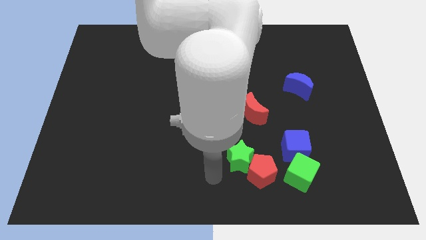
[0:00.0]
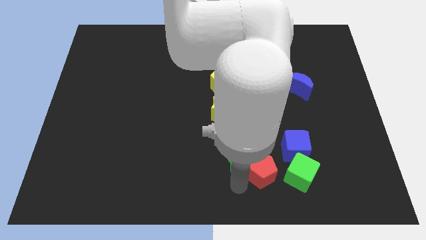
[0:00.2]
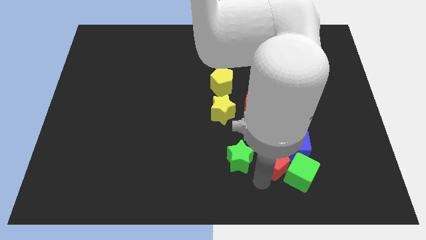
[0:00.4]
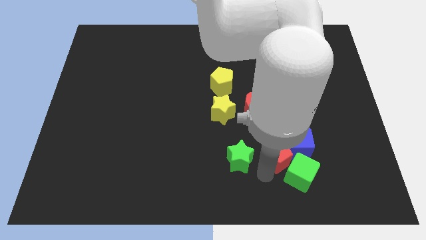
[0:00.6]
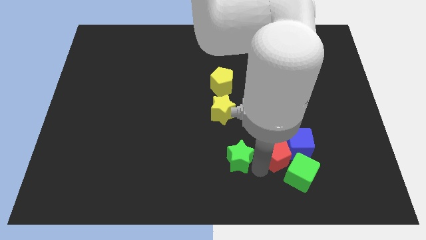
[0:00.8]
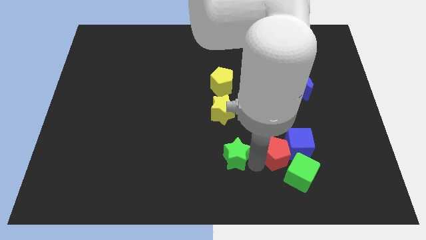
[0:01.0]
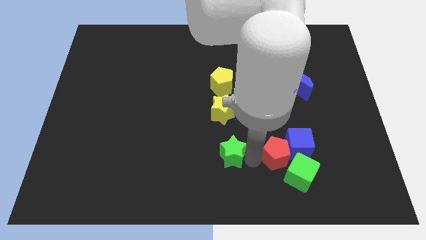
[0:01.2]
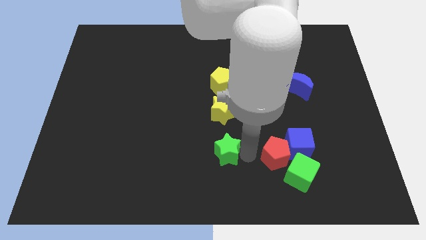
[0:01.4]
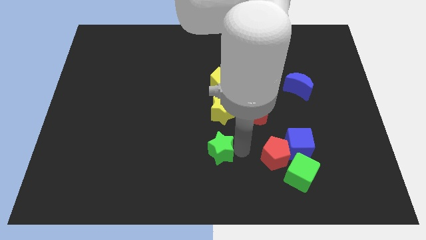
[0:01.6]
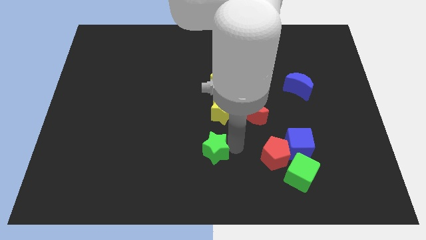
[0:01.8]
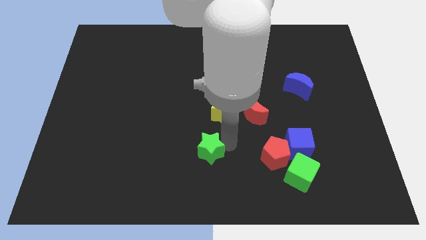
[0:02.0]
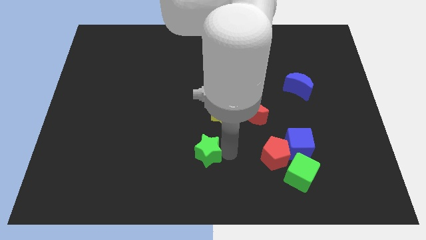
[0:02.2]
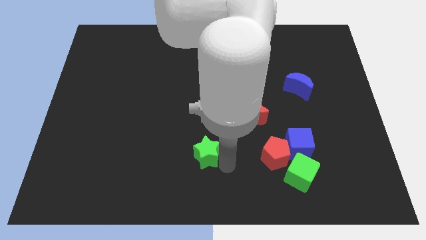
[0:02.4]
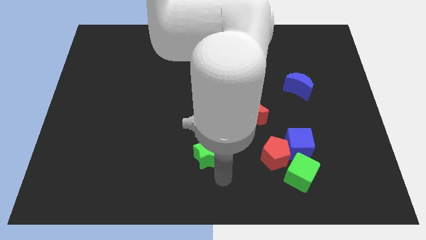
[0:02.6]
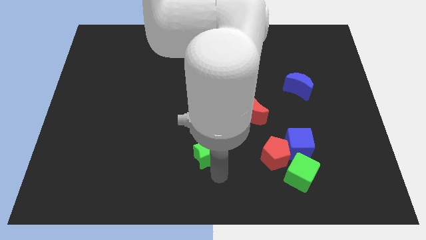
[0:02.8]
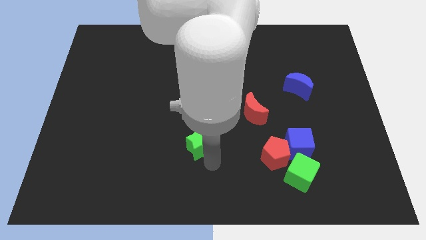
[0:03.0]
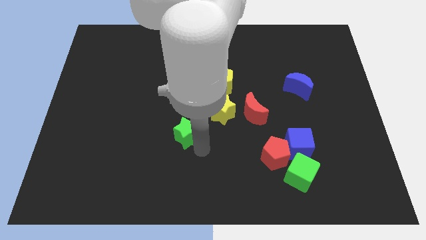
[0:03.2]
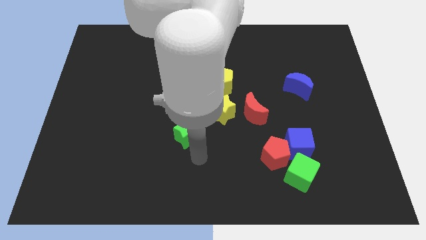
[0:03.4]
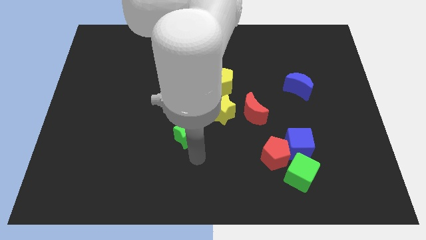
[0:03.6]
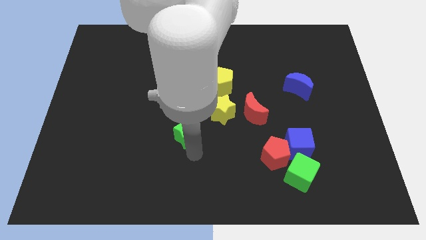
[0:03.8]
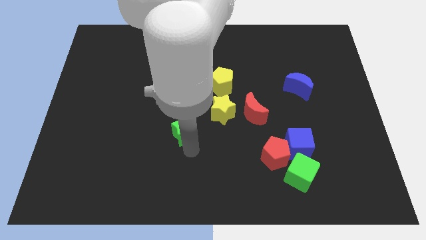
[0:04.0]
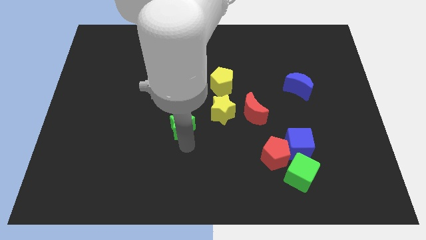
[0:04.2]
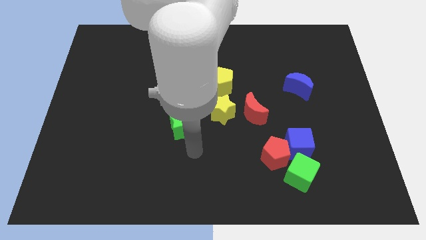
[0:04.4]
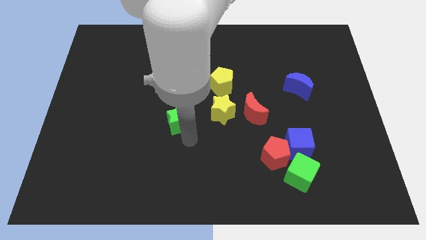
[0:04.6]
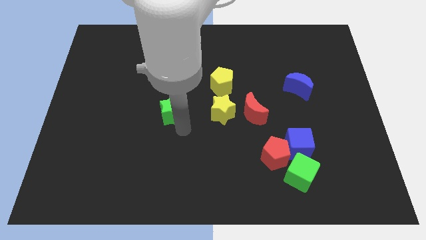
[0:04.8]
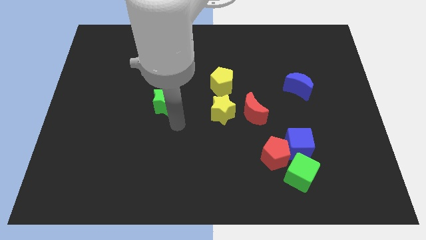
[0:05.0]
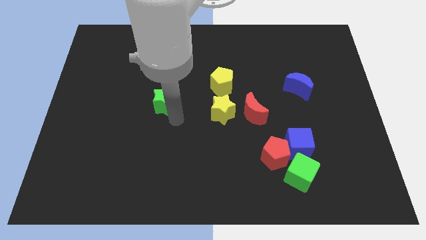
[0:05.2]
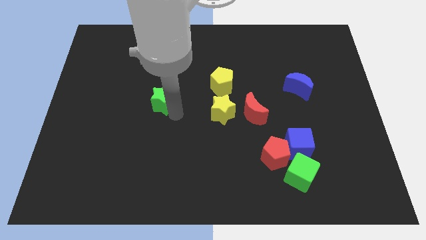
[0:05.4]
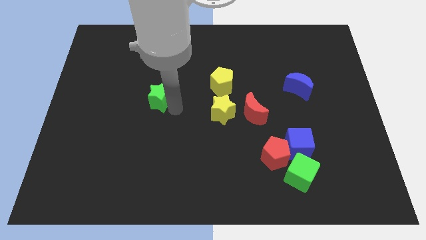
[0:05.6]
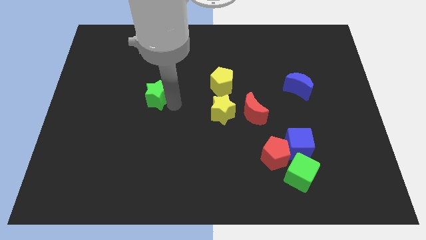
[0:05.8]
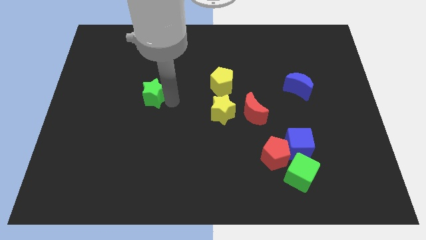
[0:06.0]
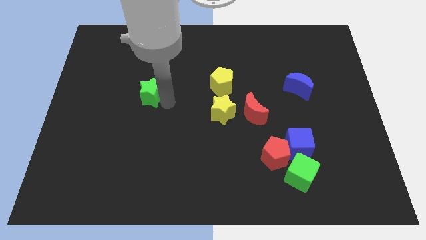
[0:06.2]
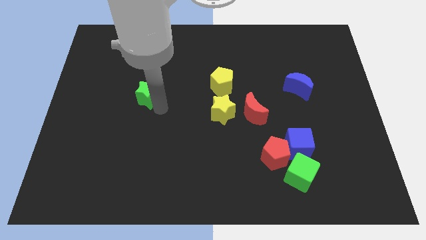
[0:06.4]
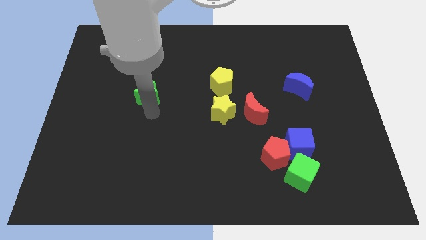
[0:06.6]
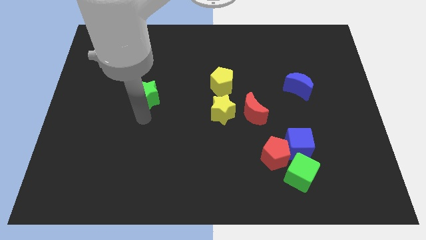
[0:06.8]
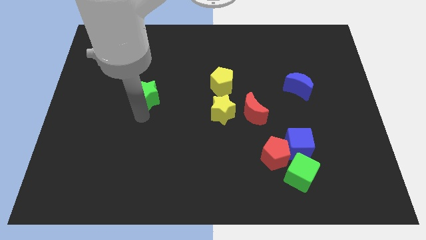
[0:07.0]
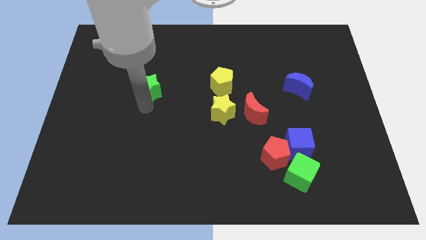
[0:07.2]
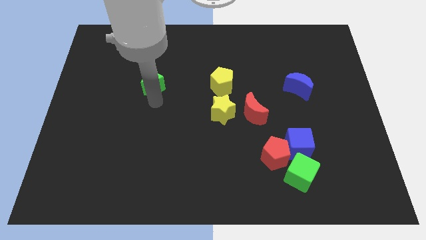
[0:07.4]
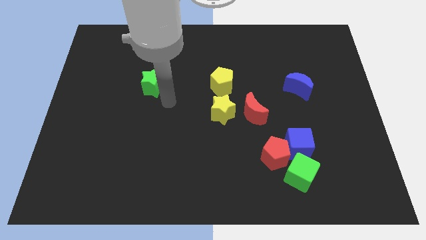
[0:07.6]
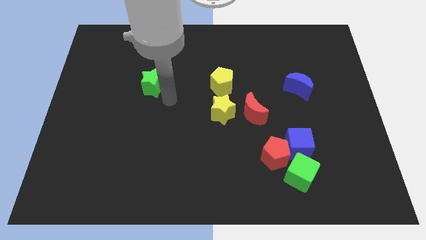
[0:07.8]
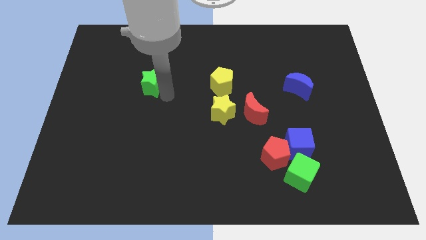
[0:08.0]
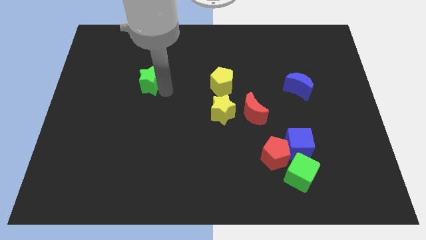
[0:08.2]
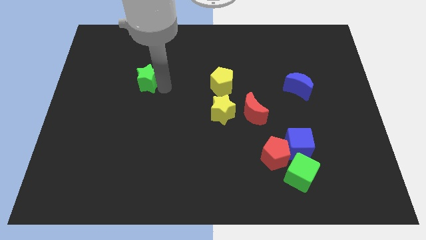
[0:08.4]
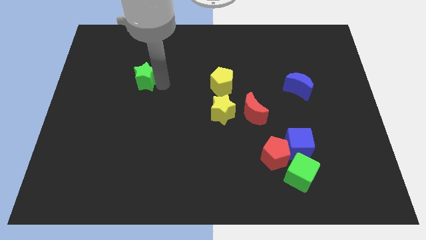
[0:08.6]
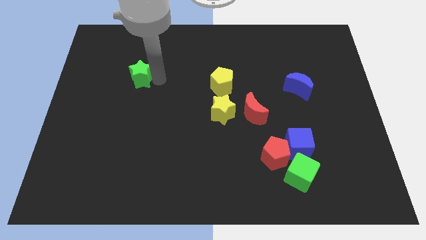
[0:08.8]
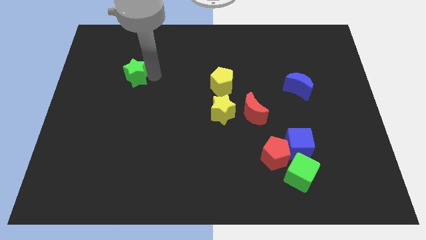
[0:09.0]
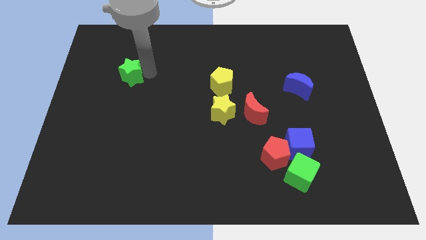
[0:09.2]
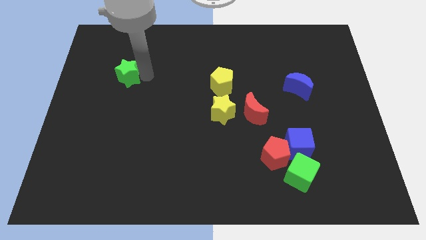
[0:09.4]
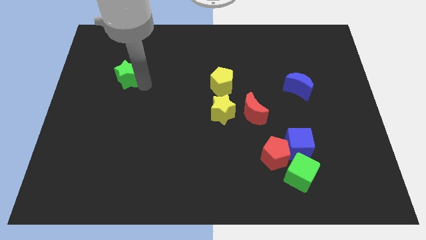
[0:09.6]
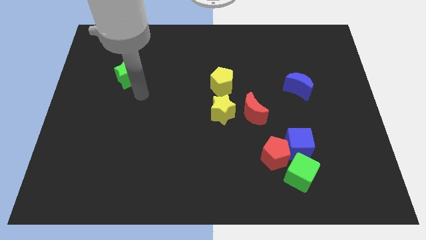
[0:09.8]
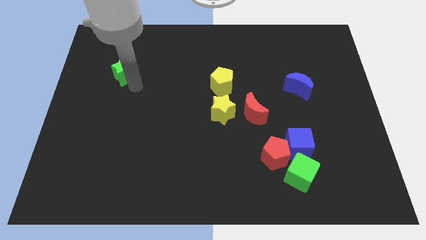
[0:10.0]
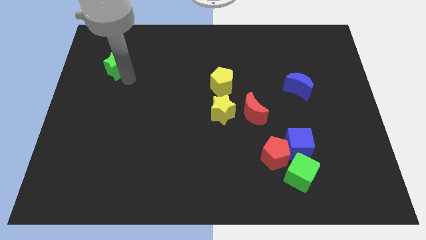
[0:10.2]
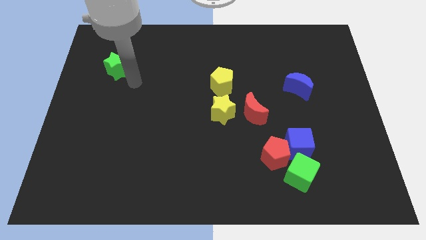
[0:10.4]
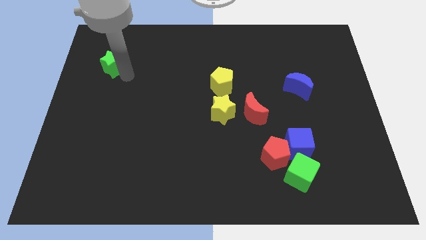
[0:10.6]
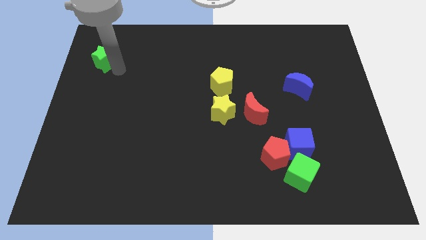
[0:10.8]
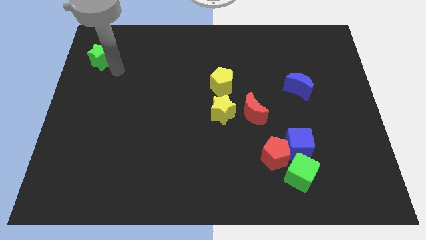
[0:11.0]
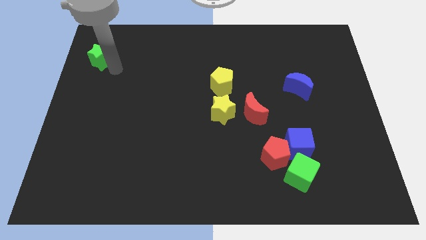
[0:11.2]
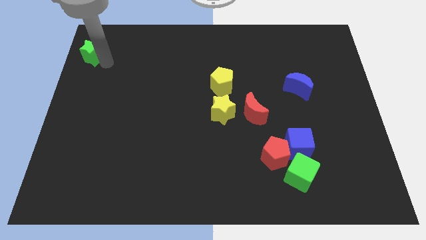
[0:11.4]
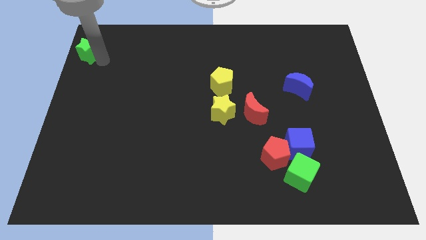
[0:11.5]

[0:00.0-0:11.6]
move the green star to the top left

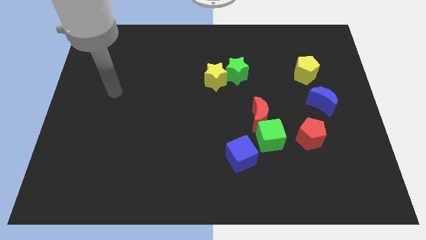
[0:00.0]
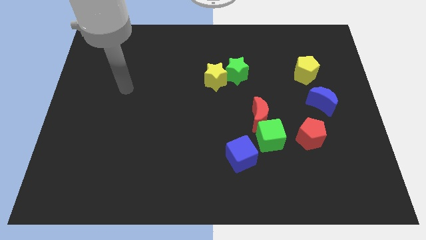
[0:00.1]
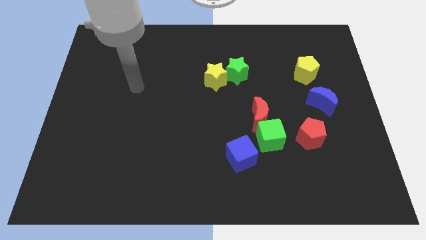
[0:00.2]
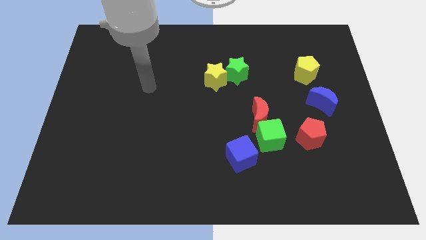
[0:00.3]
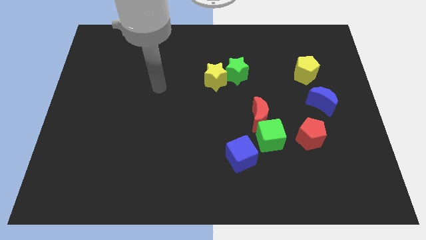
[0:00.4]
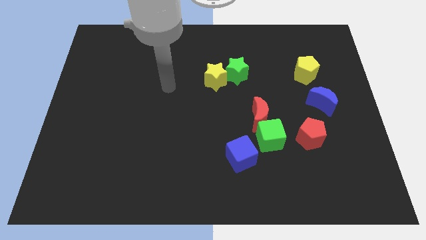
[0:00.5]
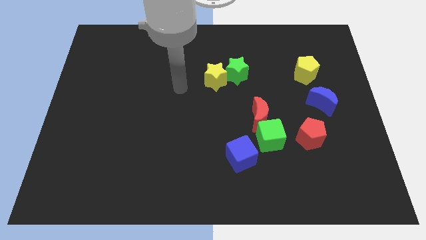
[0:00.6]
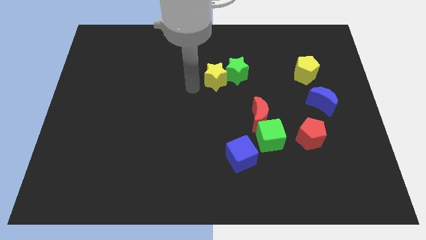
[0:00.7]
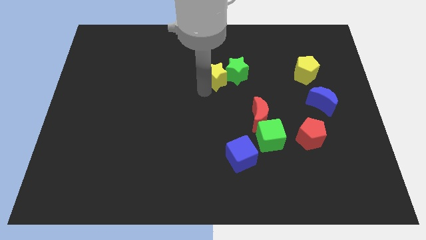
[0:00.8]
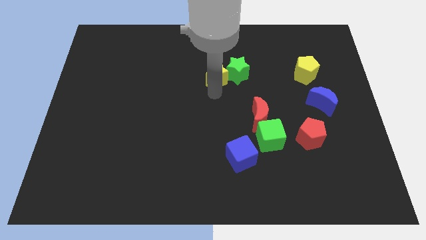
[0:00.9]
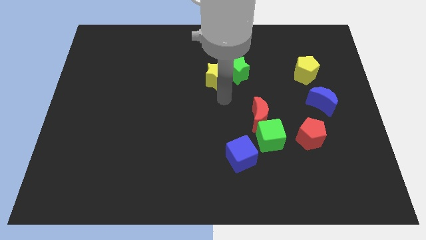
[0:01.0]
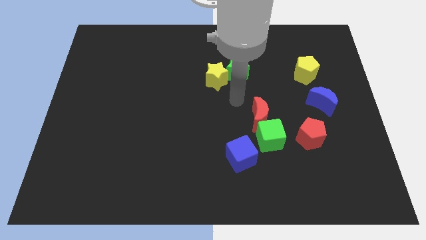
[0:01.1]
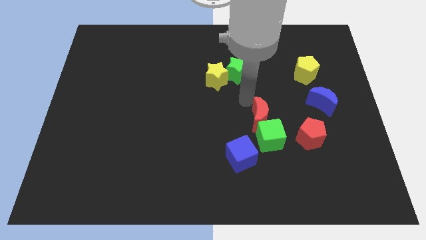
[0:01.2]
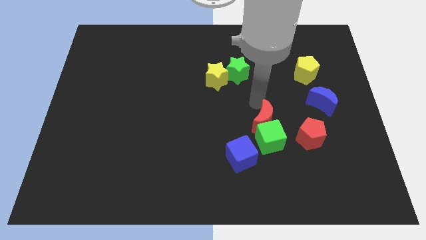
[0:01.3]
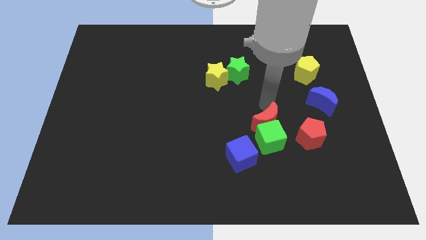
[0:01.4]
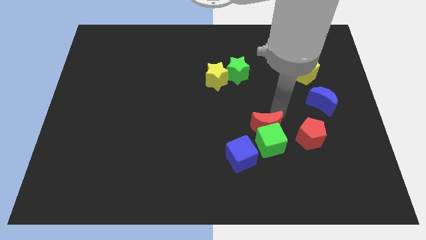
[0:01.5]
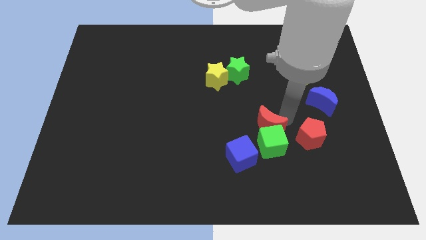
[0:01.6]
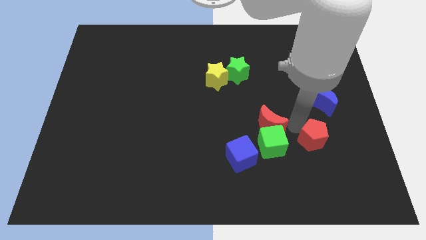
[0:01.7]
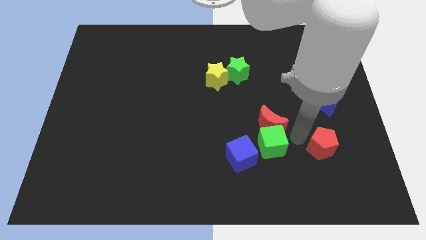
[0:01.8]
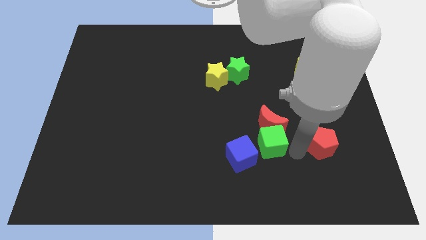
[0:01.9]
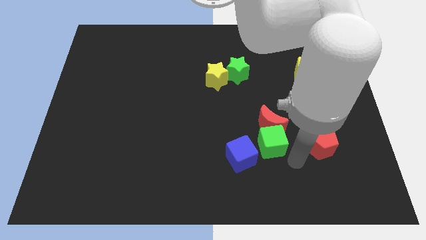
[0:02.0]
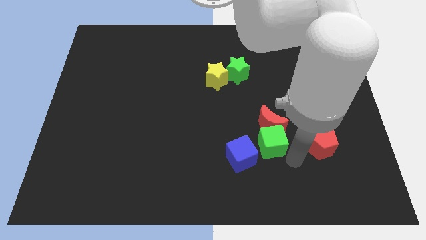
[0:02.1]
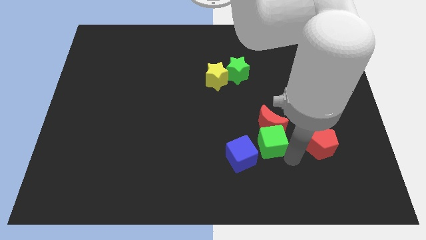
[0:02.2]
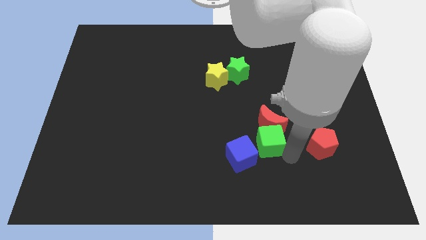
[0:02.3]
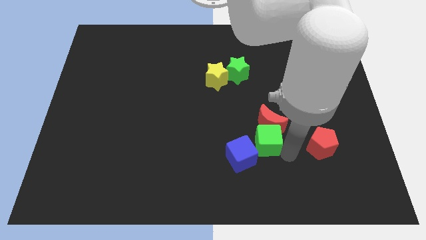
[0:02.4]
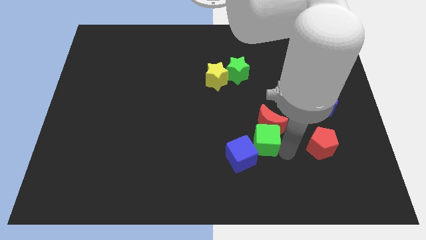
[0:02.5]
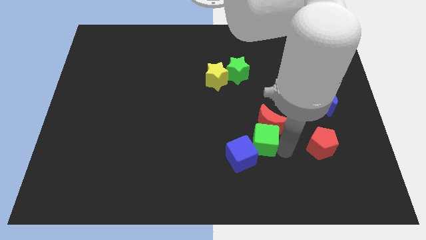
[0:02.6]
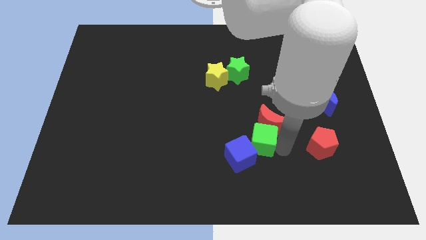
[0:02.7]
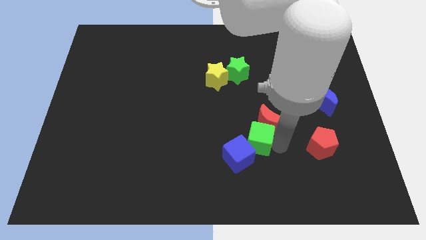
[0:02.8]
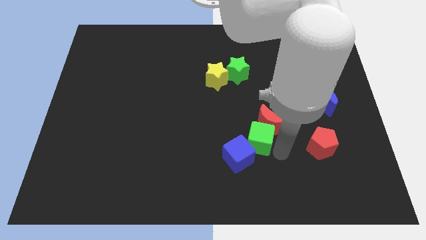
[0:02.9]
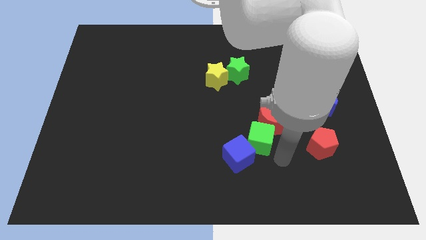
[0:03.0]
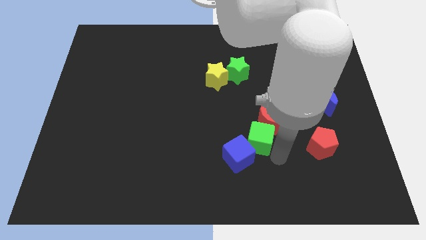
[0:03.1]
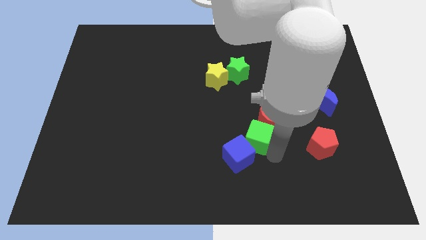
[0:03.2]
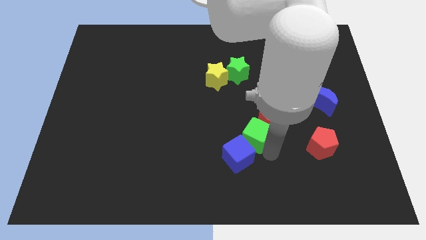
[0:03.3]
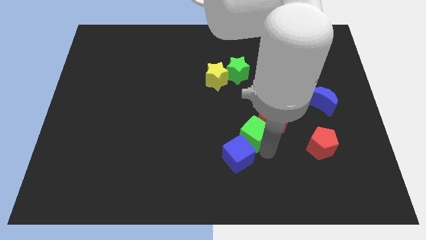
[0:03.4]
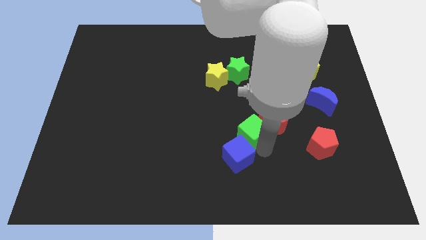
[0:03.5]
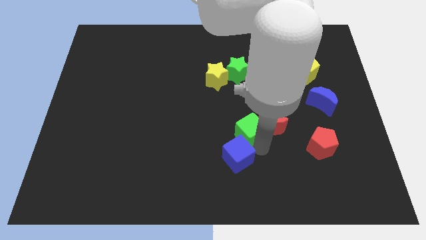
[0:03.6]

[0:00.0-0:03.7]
slide the green cube to the middle of the board
